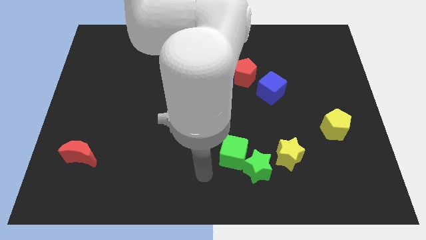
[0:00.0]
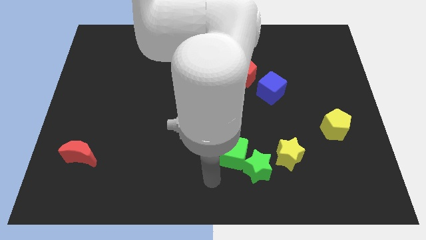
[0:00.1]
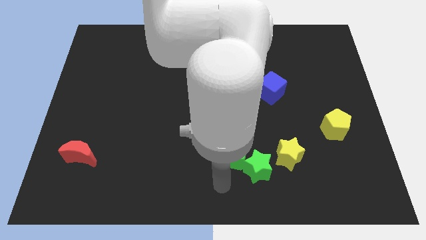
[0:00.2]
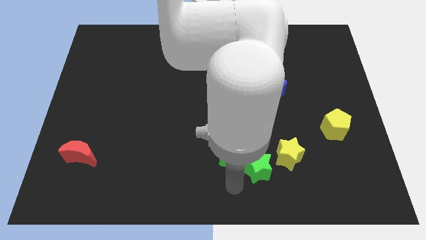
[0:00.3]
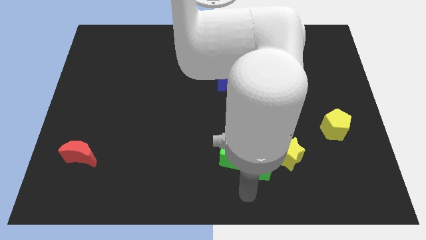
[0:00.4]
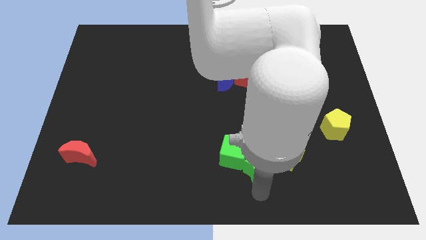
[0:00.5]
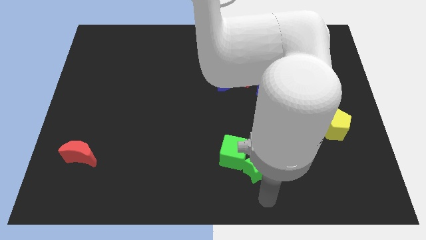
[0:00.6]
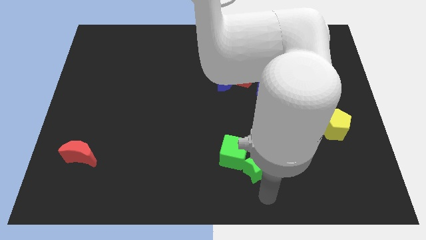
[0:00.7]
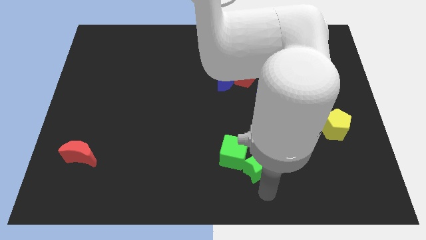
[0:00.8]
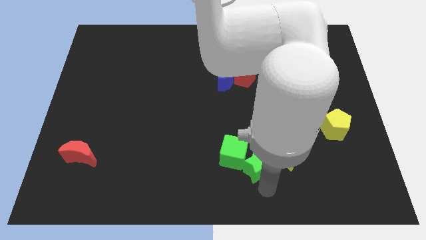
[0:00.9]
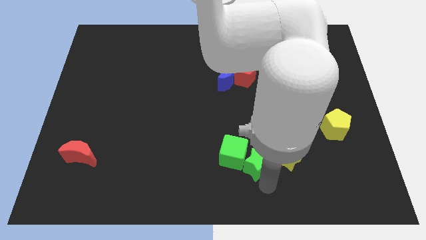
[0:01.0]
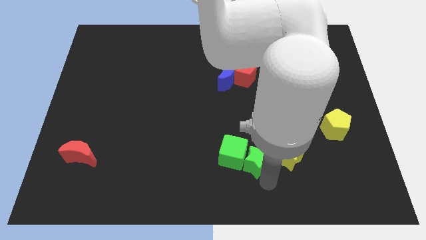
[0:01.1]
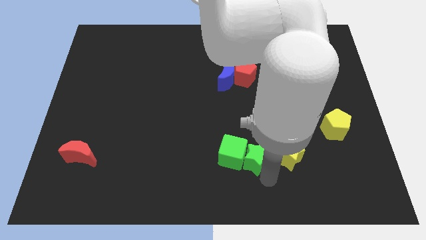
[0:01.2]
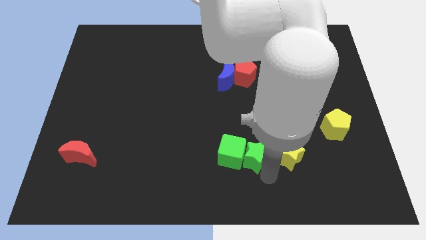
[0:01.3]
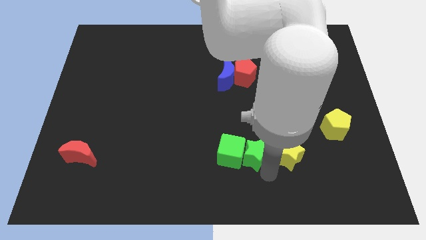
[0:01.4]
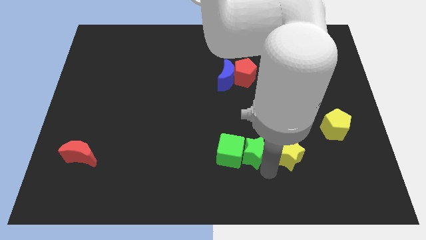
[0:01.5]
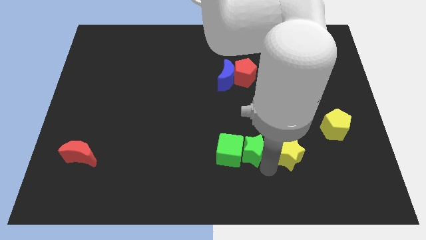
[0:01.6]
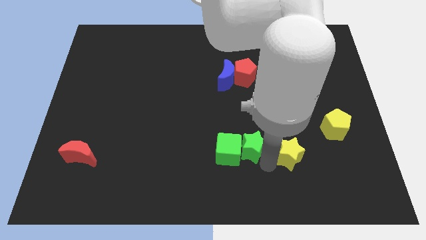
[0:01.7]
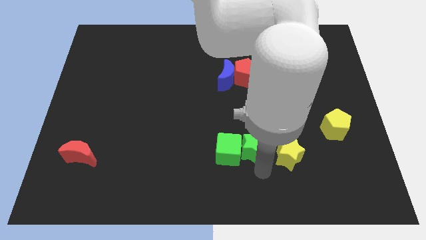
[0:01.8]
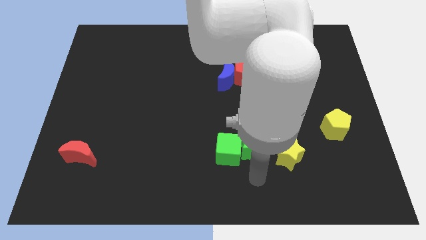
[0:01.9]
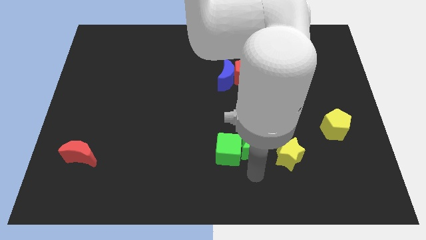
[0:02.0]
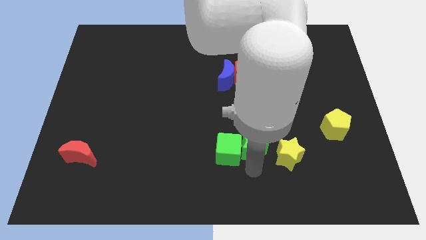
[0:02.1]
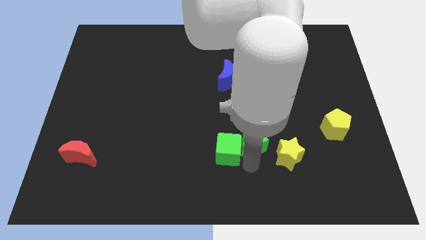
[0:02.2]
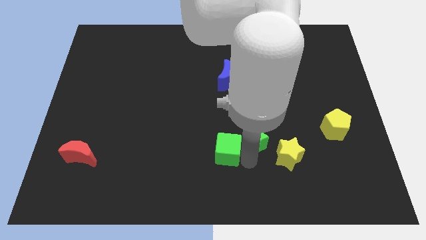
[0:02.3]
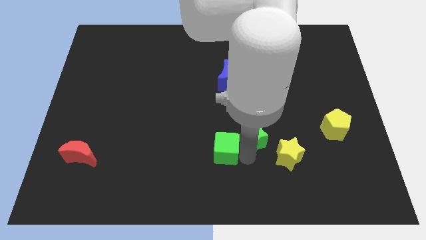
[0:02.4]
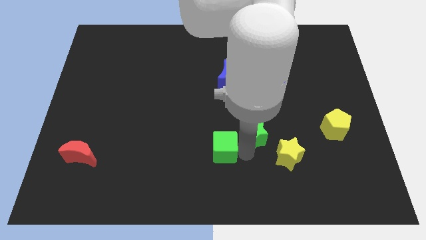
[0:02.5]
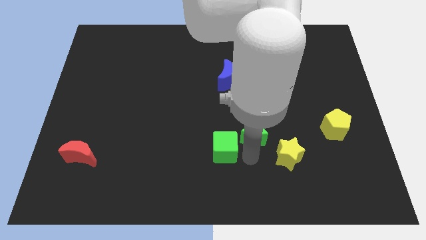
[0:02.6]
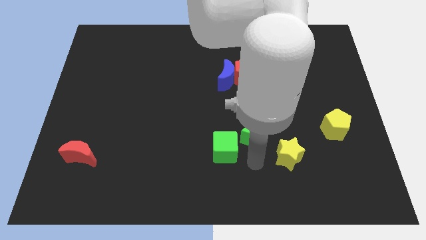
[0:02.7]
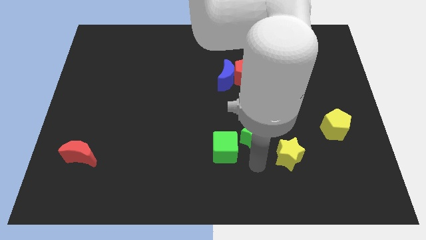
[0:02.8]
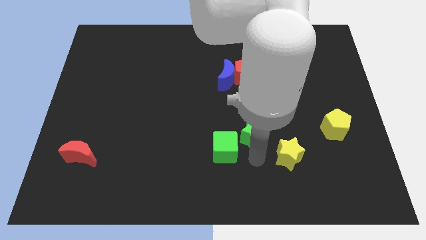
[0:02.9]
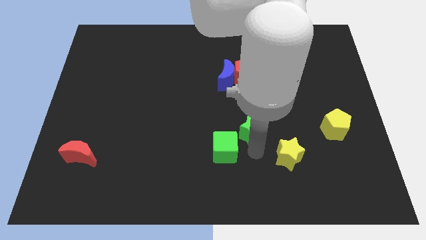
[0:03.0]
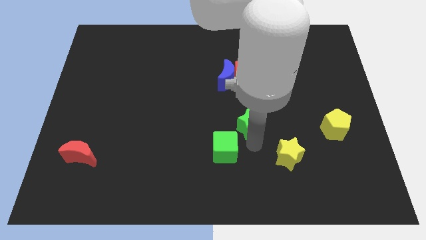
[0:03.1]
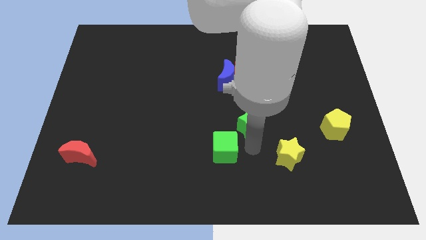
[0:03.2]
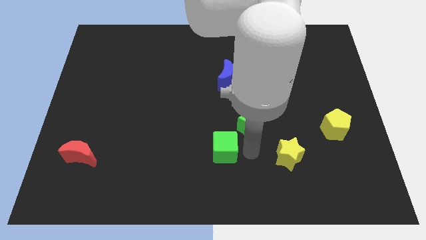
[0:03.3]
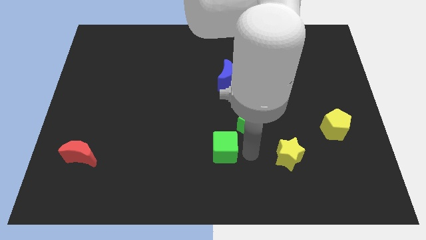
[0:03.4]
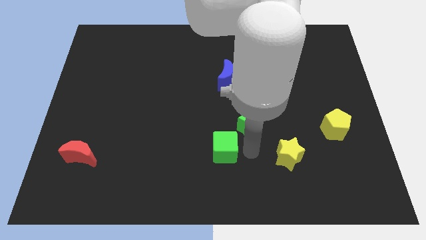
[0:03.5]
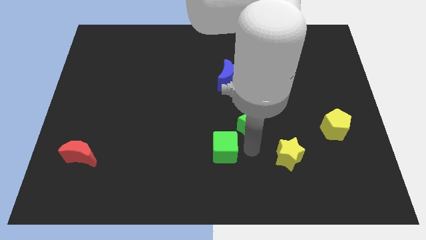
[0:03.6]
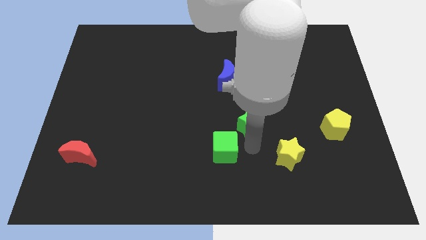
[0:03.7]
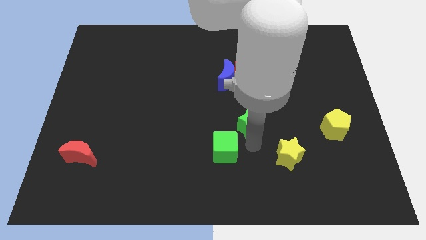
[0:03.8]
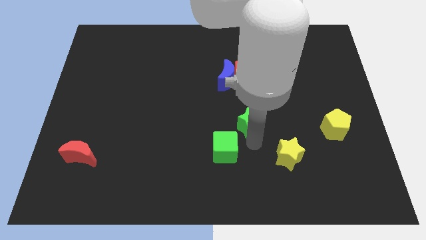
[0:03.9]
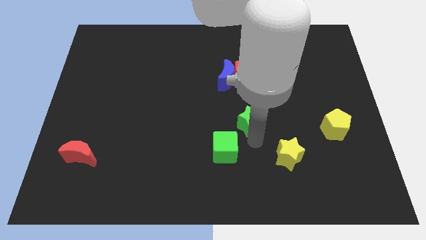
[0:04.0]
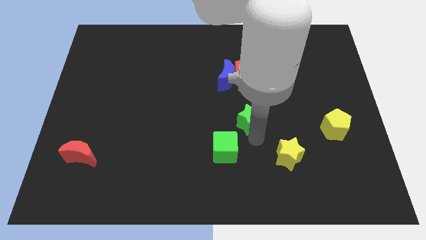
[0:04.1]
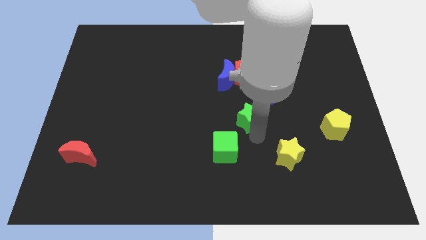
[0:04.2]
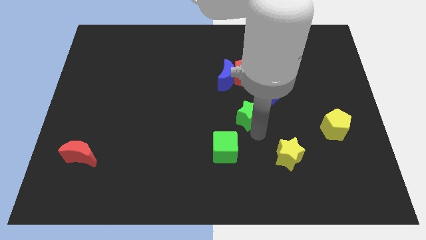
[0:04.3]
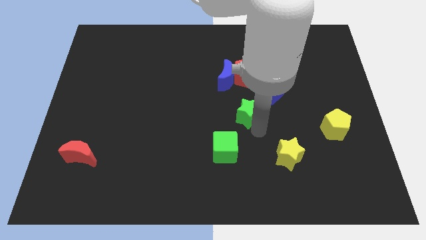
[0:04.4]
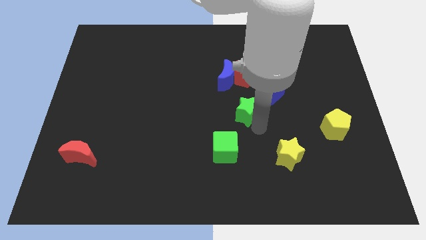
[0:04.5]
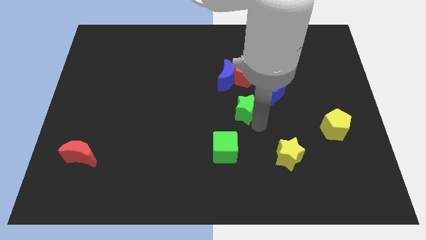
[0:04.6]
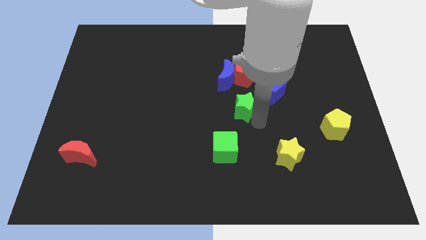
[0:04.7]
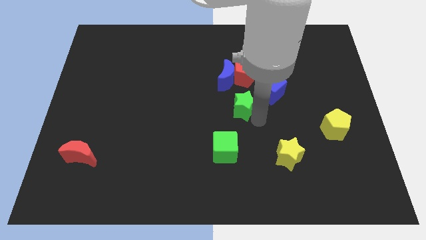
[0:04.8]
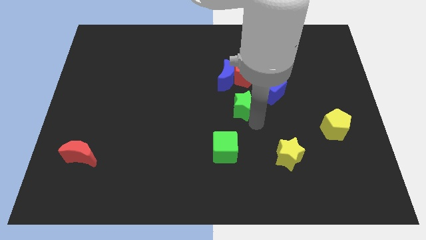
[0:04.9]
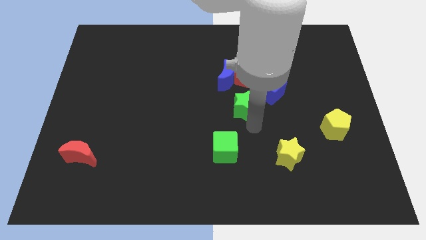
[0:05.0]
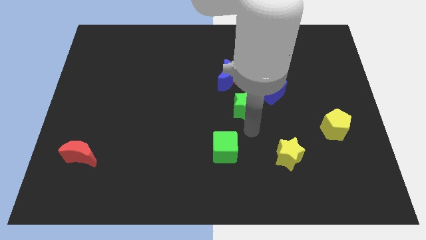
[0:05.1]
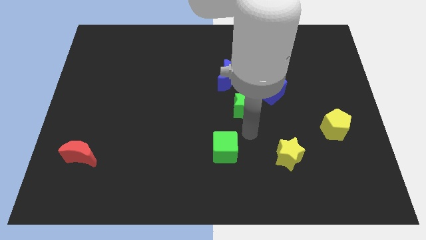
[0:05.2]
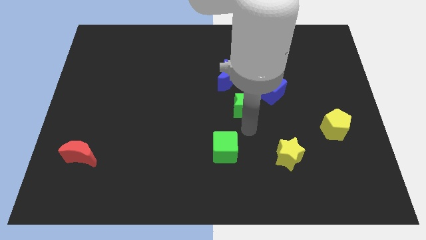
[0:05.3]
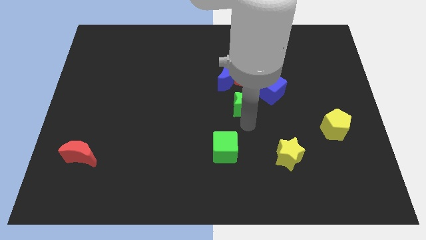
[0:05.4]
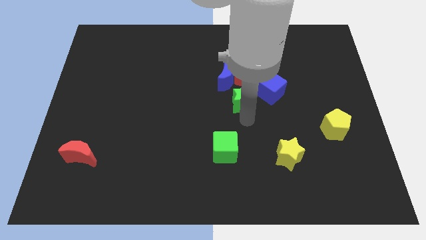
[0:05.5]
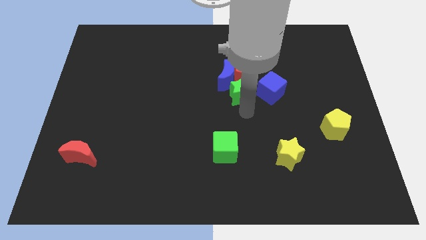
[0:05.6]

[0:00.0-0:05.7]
put the green star close to the blue moon
